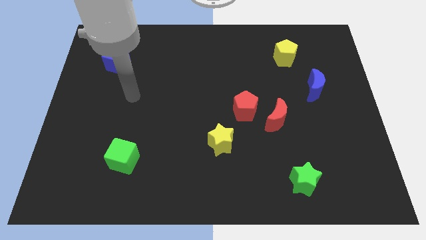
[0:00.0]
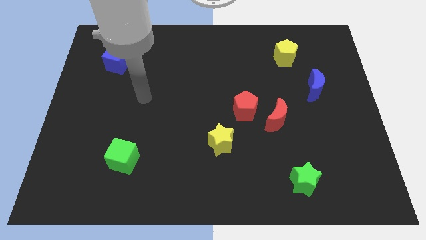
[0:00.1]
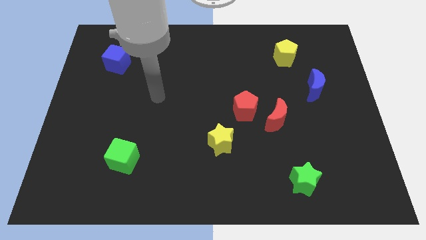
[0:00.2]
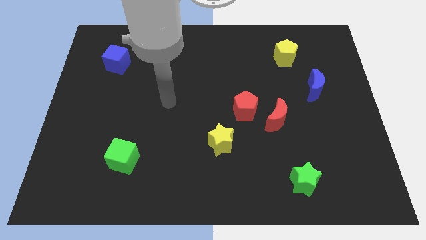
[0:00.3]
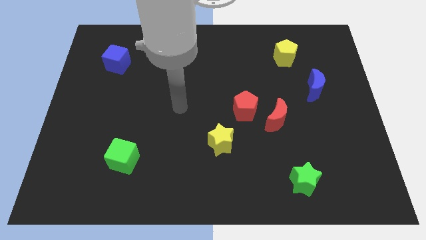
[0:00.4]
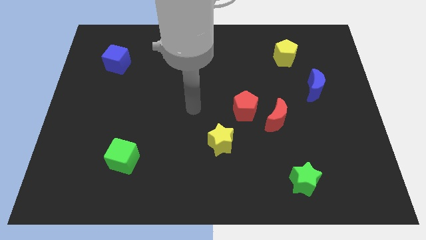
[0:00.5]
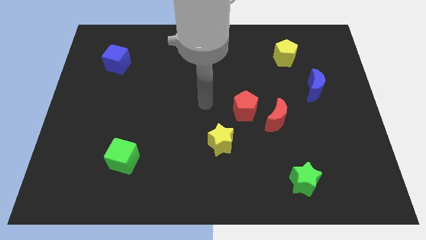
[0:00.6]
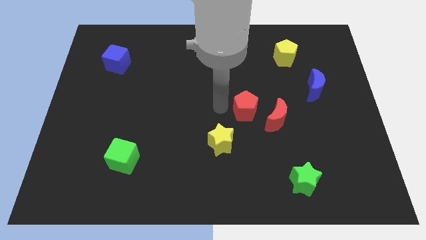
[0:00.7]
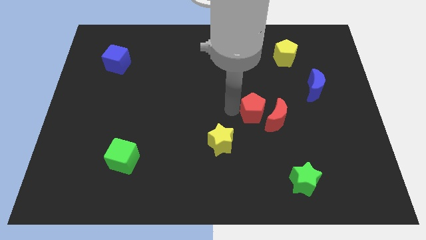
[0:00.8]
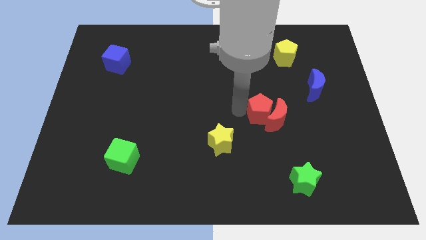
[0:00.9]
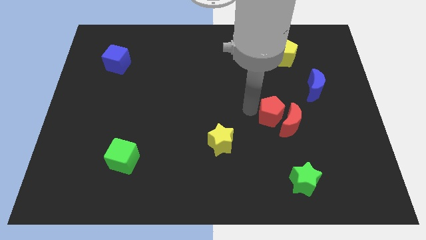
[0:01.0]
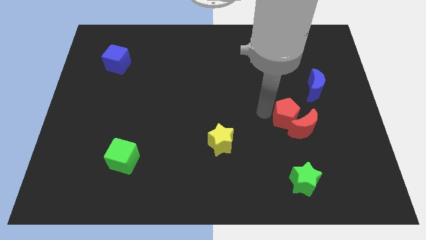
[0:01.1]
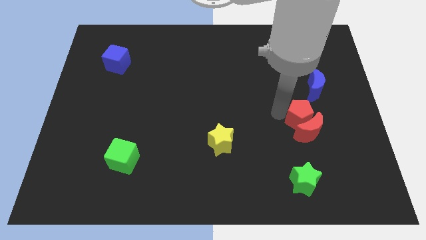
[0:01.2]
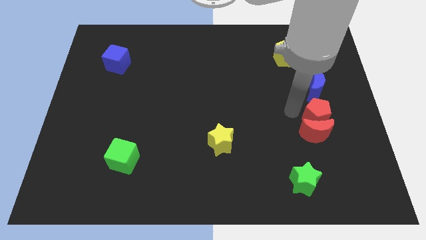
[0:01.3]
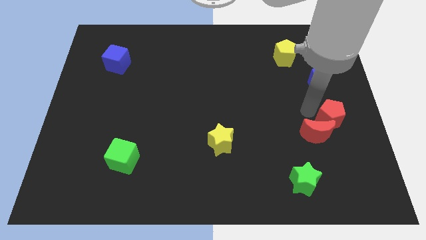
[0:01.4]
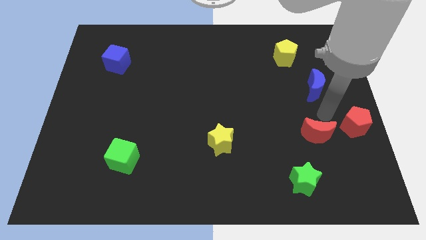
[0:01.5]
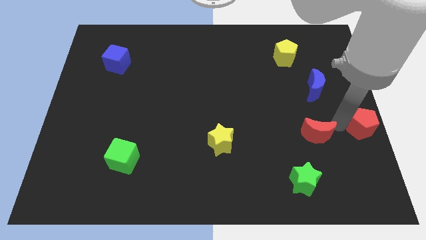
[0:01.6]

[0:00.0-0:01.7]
pull the red moon apart from the red pentagon

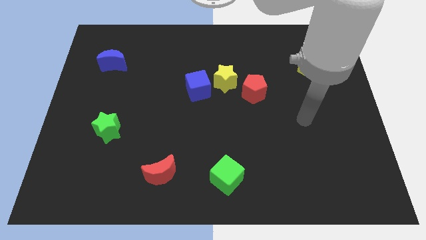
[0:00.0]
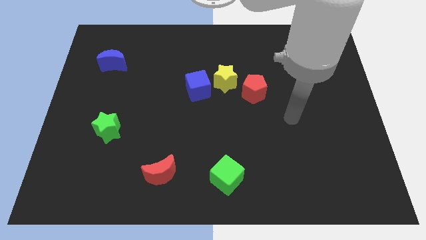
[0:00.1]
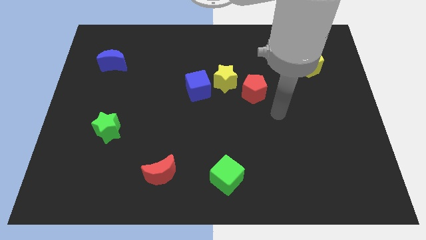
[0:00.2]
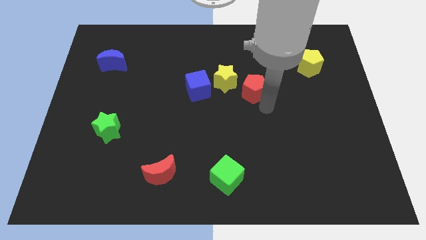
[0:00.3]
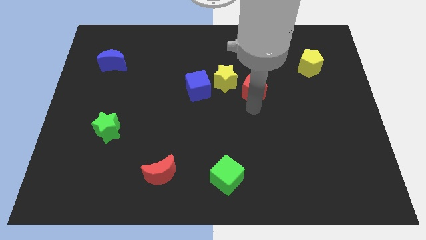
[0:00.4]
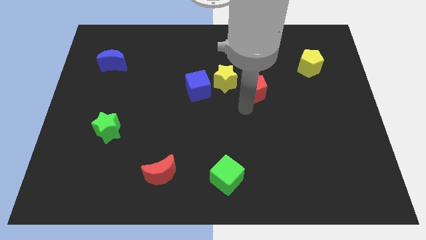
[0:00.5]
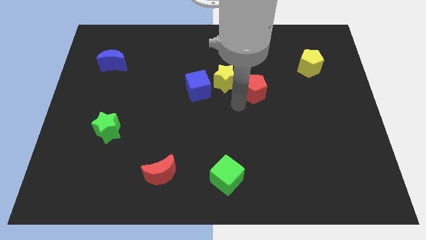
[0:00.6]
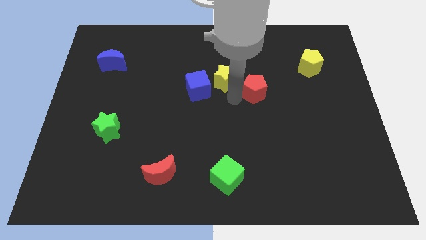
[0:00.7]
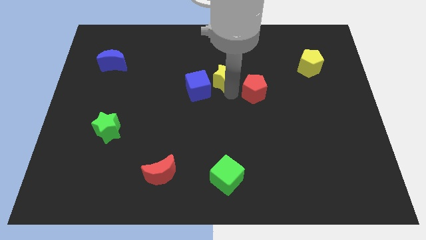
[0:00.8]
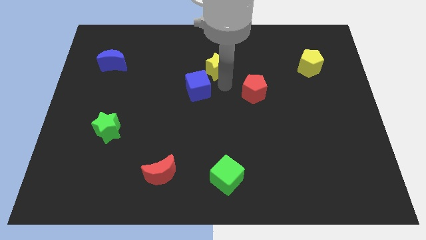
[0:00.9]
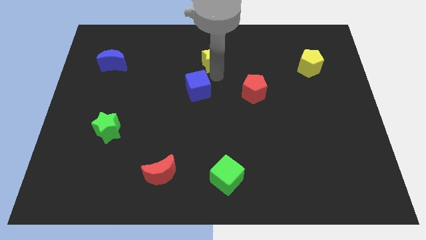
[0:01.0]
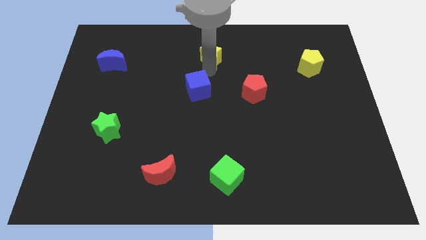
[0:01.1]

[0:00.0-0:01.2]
move the blue cube away from the yellow star

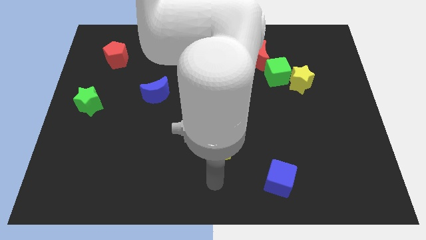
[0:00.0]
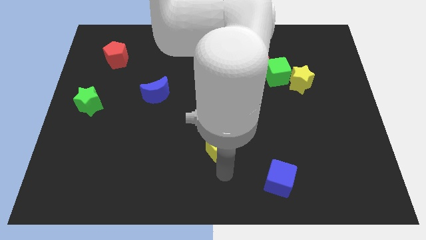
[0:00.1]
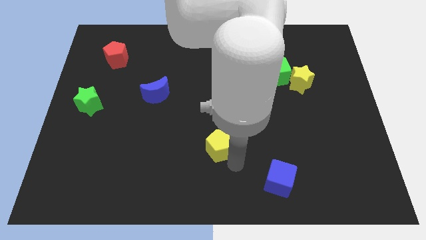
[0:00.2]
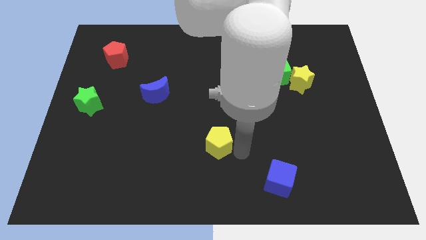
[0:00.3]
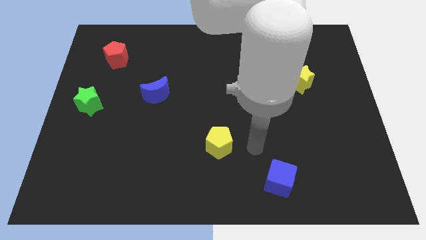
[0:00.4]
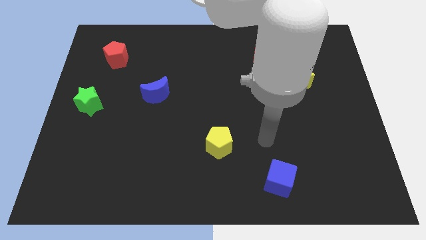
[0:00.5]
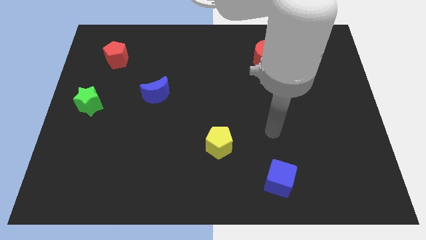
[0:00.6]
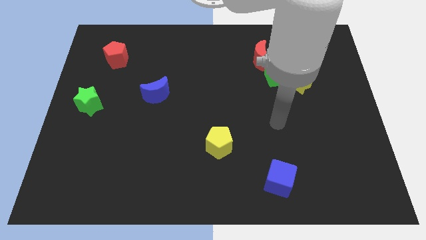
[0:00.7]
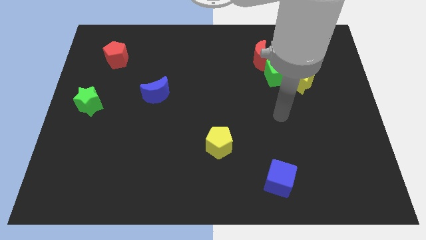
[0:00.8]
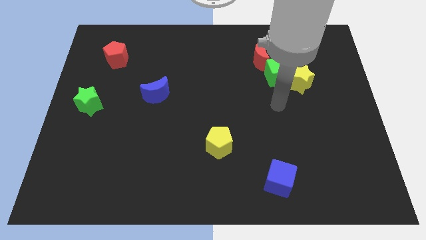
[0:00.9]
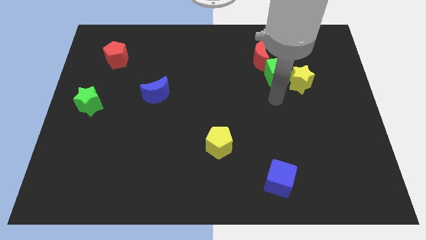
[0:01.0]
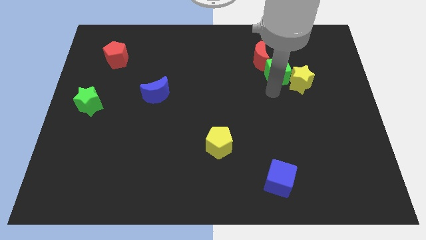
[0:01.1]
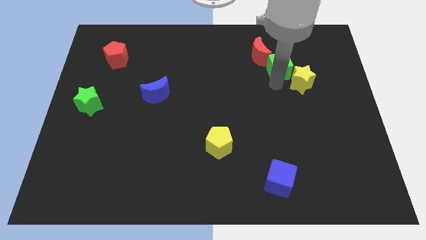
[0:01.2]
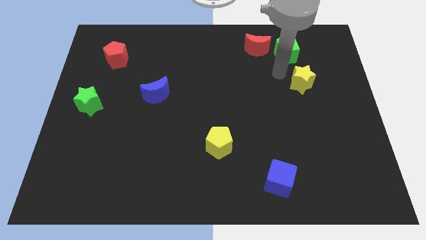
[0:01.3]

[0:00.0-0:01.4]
move the yellow star away from the green cube

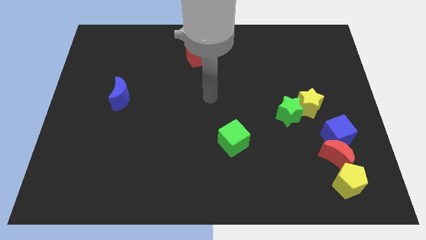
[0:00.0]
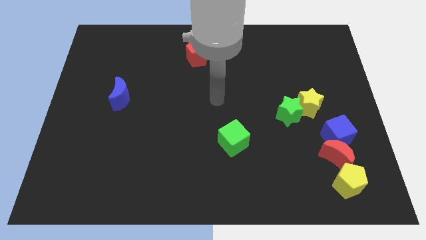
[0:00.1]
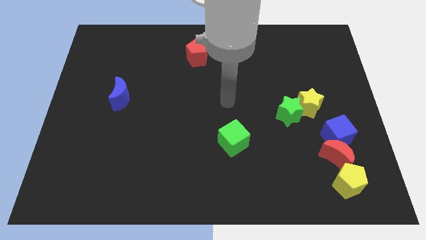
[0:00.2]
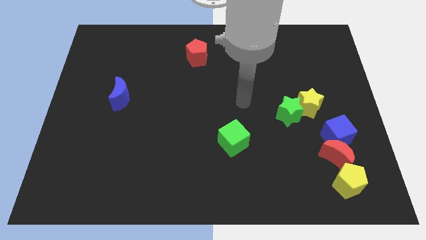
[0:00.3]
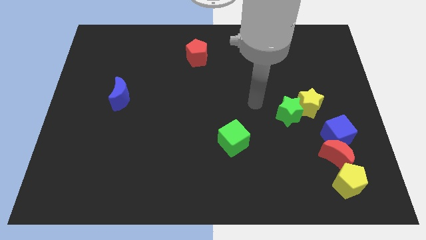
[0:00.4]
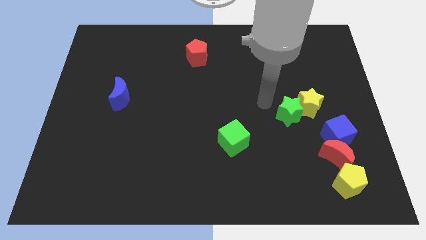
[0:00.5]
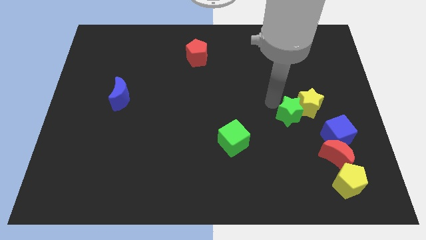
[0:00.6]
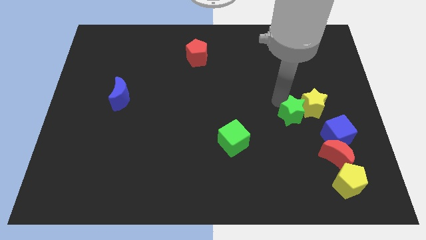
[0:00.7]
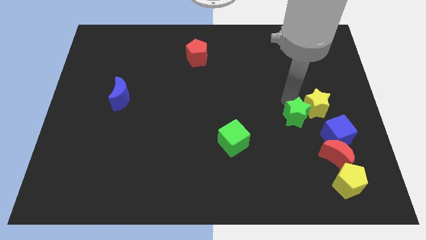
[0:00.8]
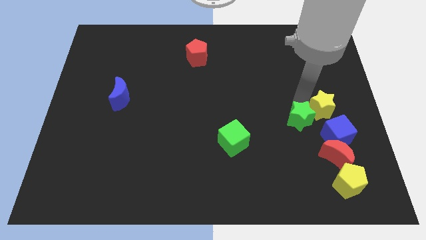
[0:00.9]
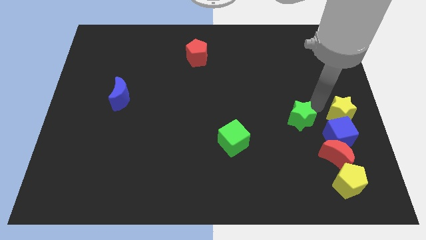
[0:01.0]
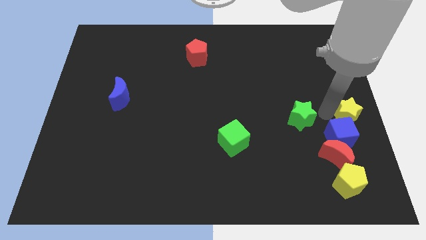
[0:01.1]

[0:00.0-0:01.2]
move the green star away from the yellow star

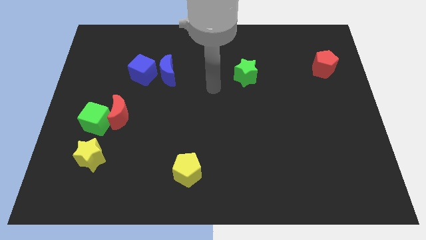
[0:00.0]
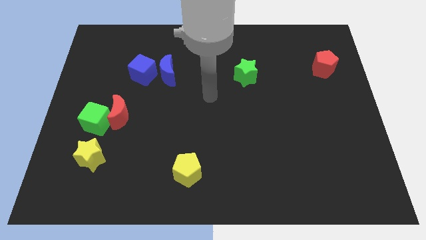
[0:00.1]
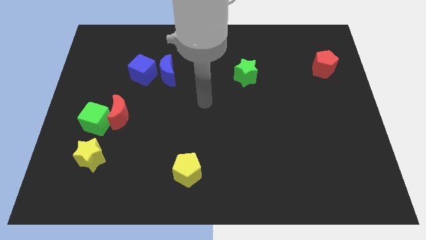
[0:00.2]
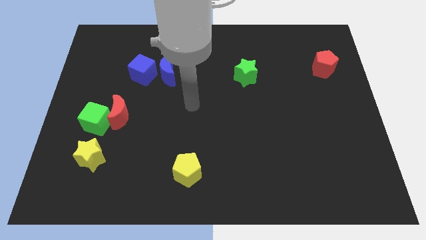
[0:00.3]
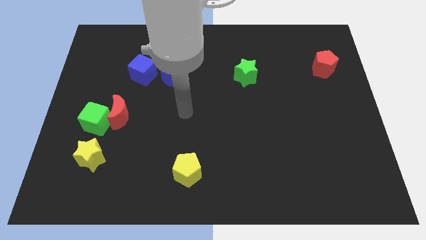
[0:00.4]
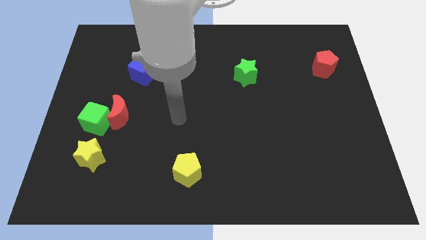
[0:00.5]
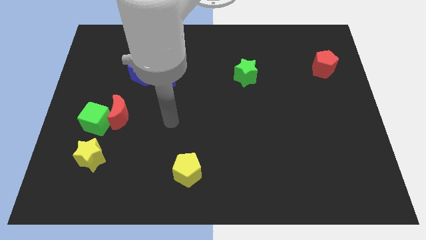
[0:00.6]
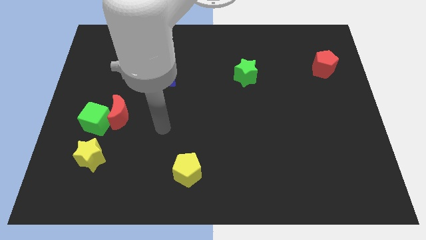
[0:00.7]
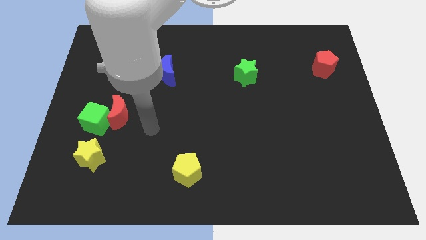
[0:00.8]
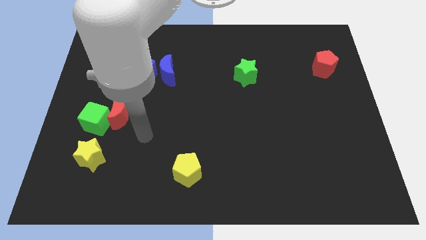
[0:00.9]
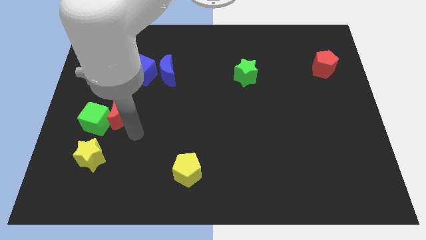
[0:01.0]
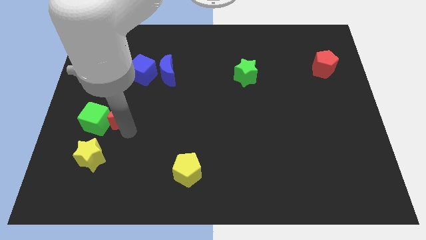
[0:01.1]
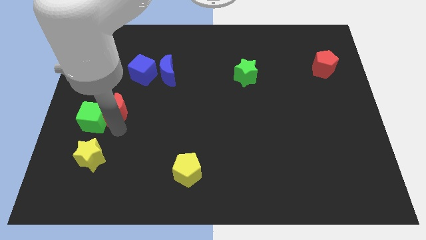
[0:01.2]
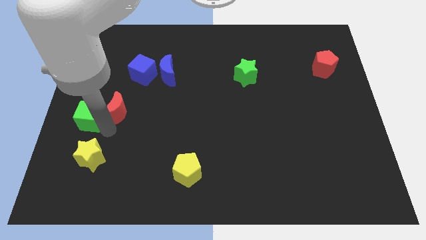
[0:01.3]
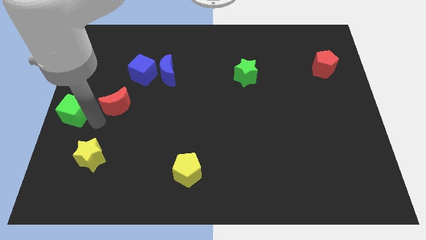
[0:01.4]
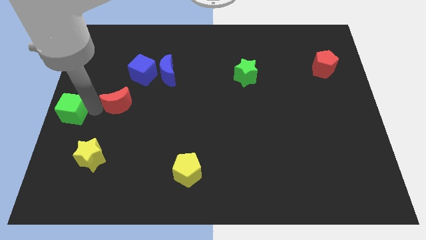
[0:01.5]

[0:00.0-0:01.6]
separate the red moon from the green cube

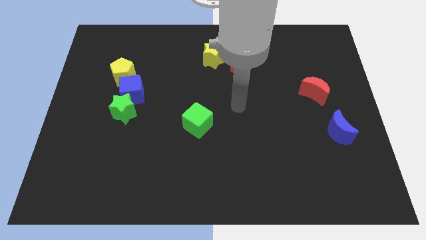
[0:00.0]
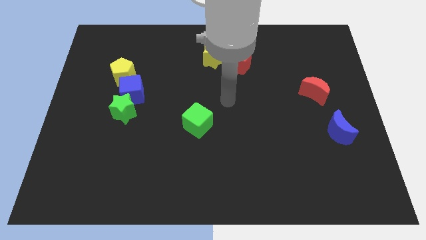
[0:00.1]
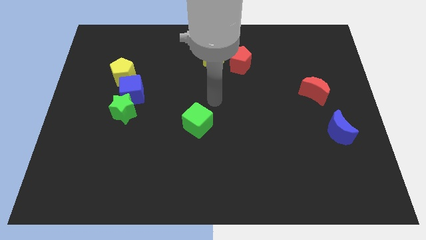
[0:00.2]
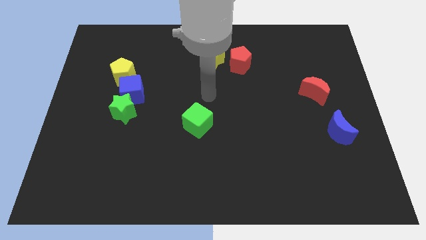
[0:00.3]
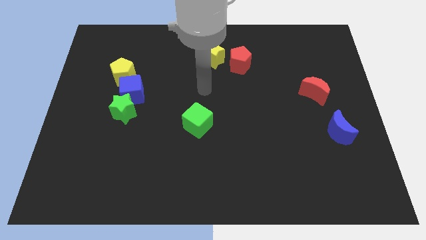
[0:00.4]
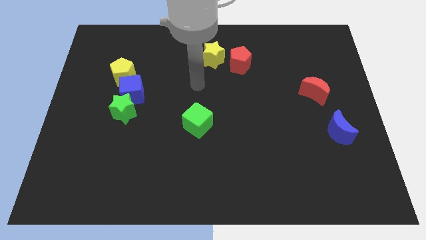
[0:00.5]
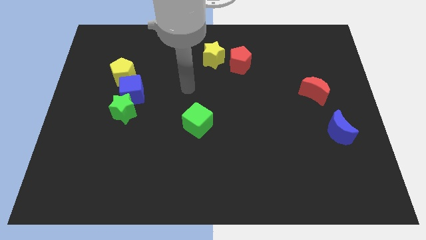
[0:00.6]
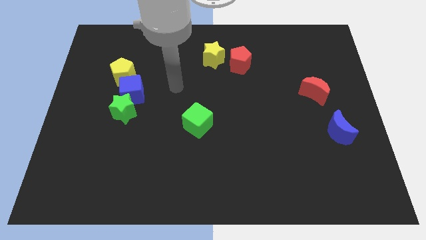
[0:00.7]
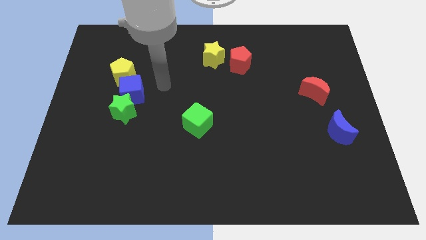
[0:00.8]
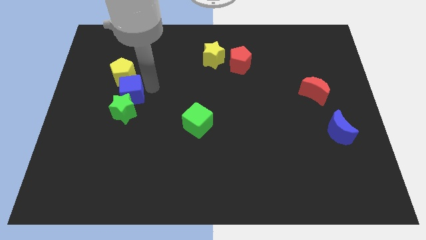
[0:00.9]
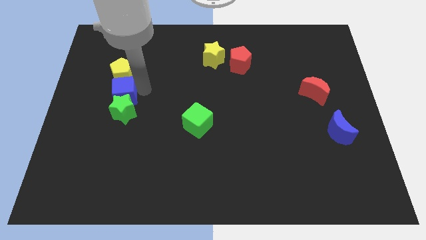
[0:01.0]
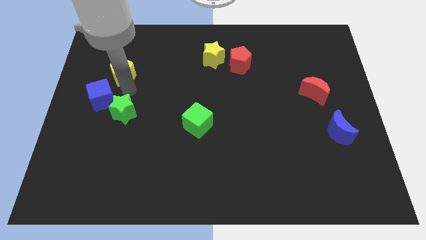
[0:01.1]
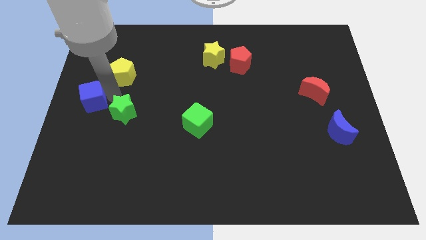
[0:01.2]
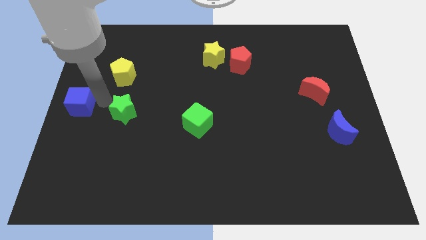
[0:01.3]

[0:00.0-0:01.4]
separate the green star from the blue cube

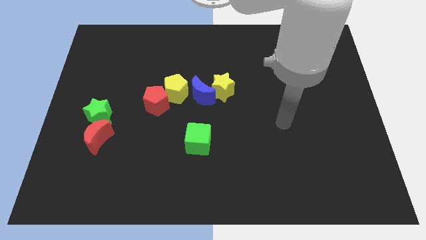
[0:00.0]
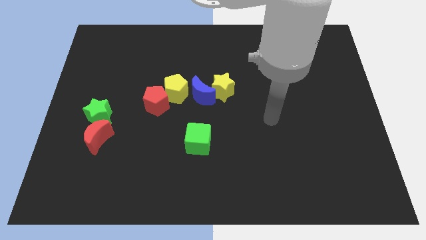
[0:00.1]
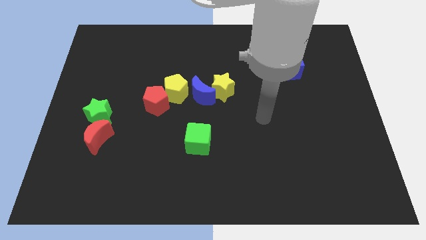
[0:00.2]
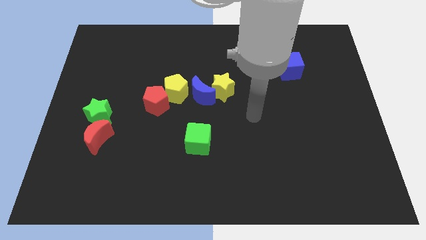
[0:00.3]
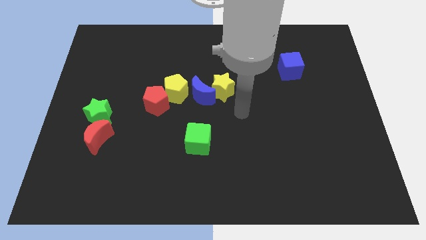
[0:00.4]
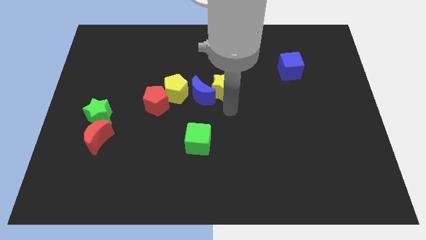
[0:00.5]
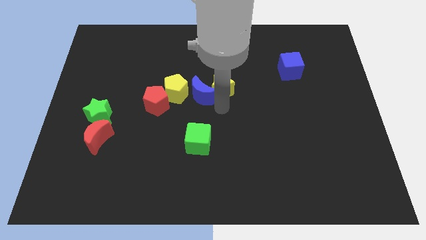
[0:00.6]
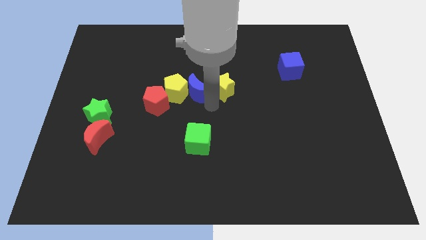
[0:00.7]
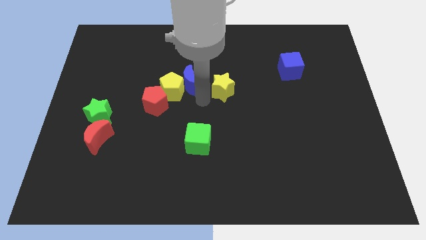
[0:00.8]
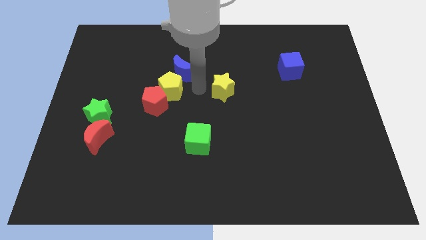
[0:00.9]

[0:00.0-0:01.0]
pull the yellow star apart from the blue moon
